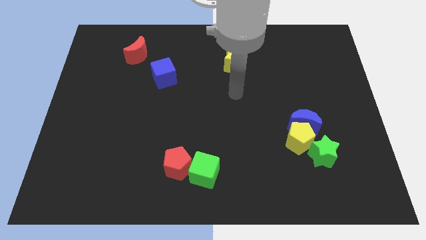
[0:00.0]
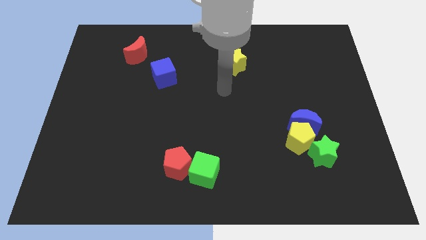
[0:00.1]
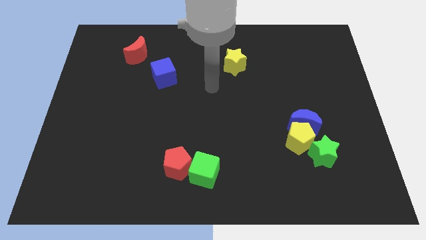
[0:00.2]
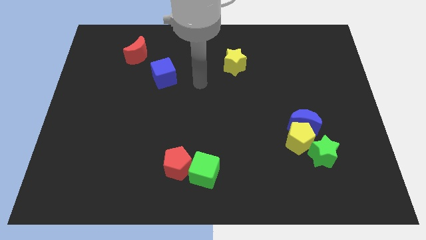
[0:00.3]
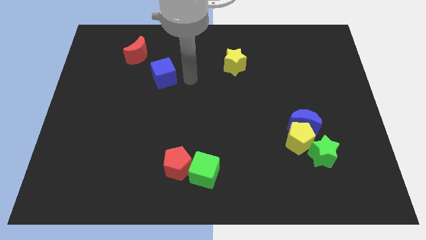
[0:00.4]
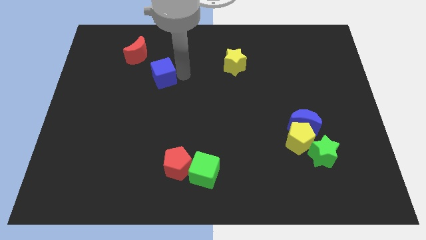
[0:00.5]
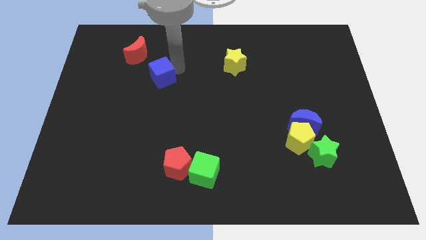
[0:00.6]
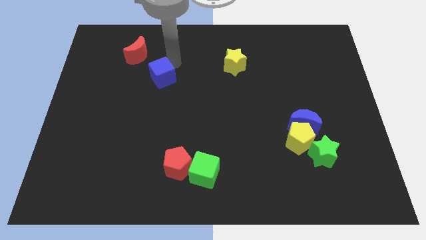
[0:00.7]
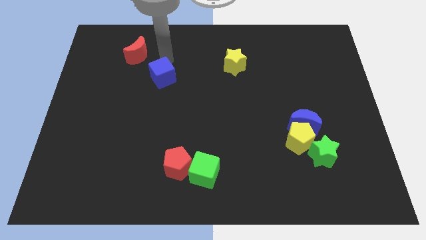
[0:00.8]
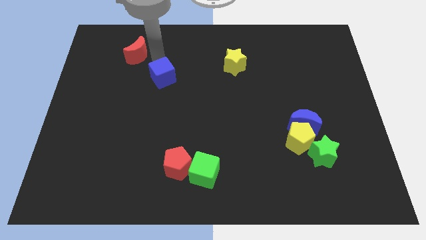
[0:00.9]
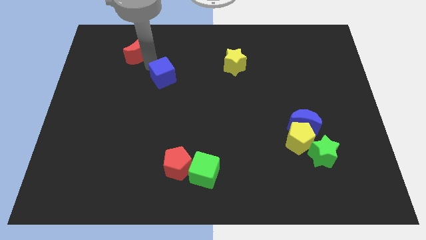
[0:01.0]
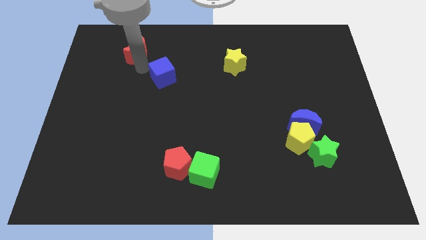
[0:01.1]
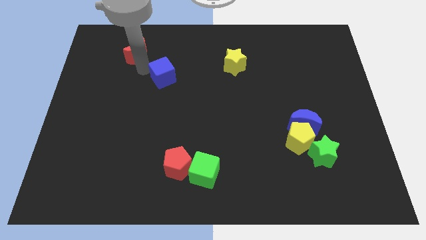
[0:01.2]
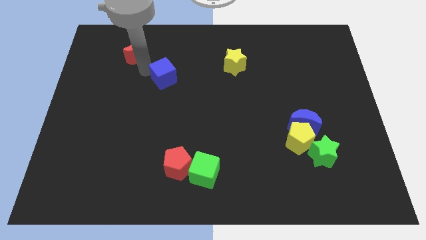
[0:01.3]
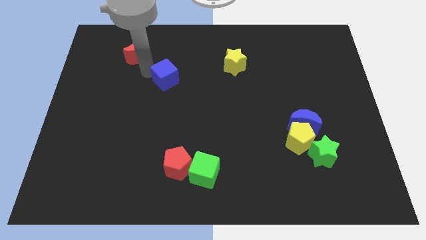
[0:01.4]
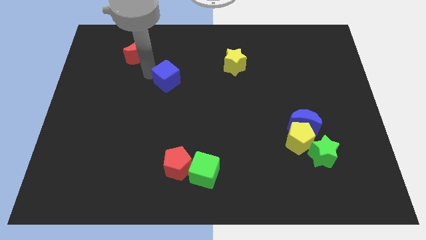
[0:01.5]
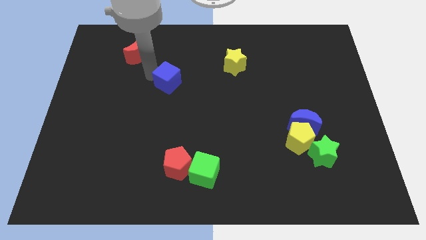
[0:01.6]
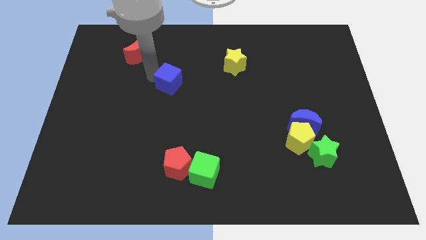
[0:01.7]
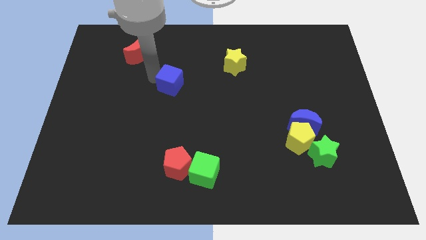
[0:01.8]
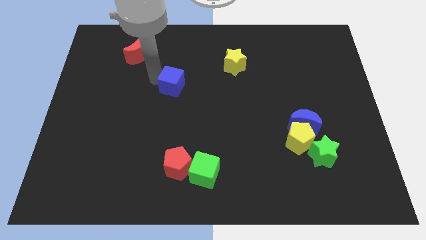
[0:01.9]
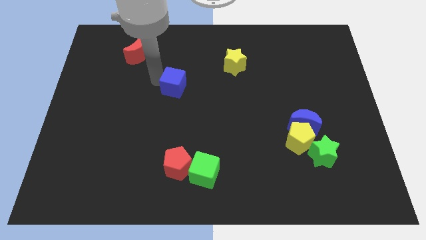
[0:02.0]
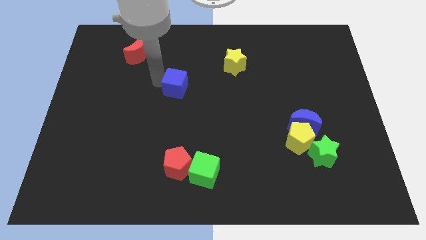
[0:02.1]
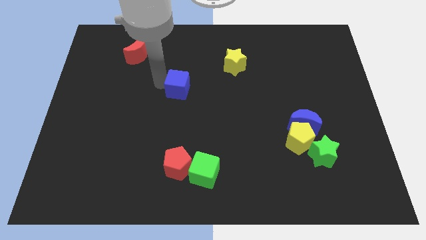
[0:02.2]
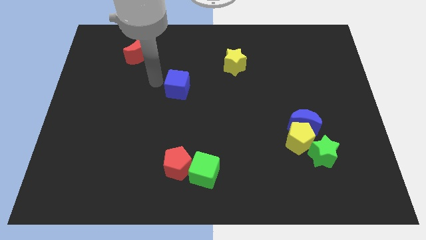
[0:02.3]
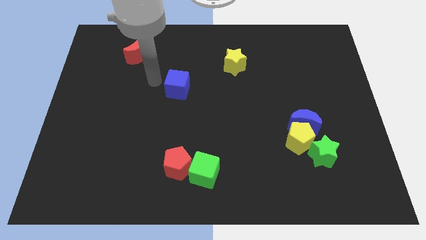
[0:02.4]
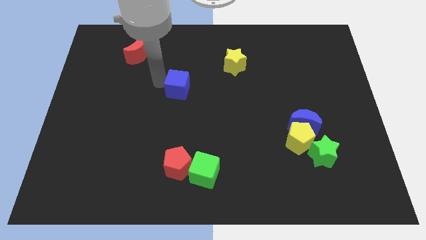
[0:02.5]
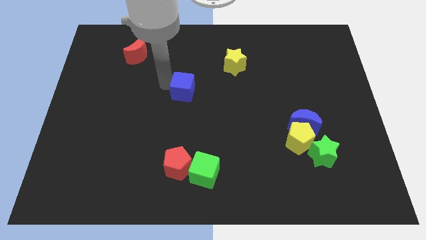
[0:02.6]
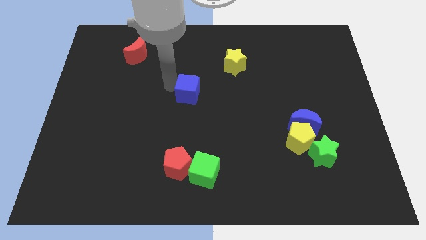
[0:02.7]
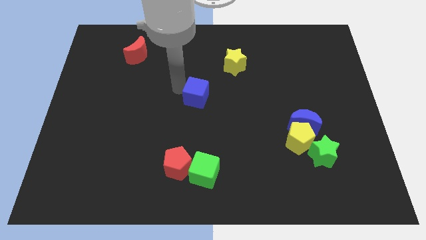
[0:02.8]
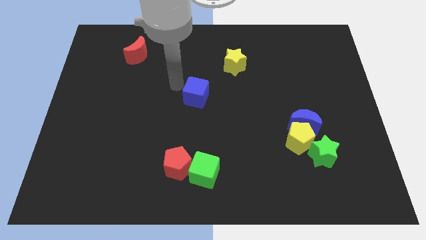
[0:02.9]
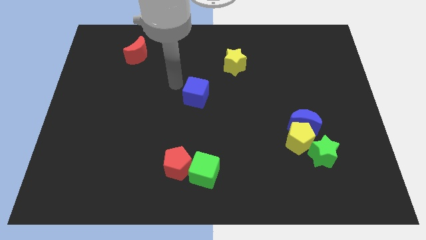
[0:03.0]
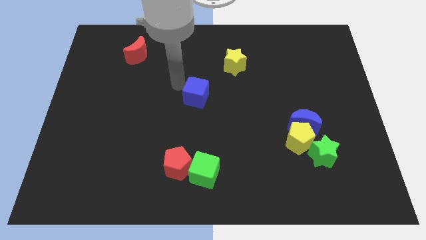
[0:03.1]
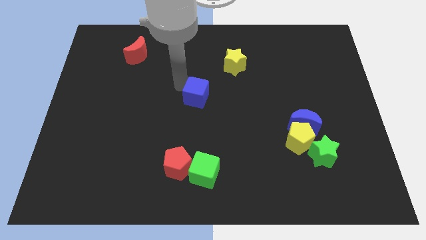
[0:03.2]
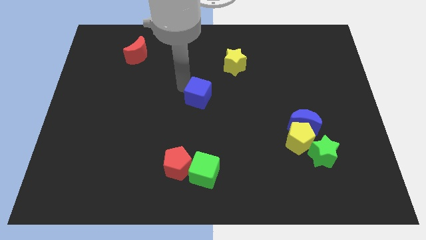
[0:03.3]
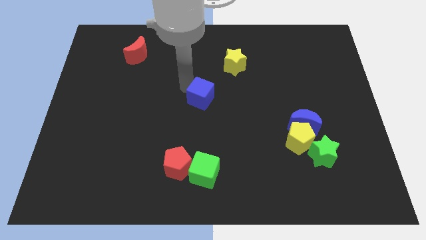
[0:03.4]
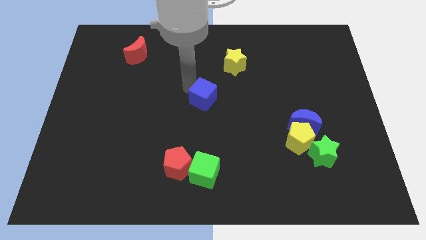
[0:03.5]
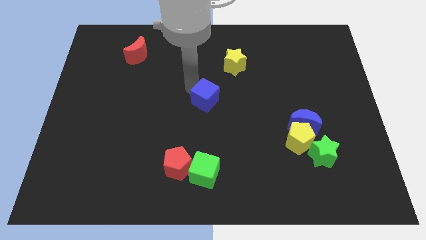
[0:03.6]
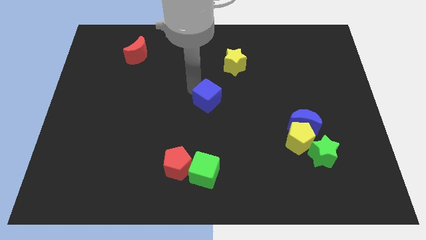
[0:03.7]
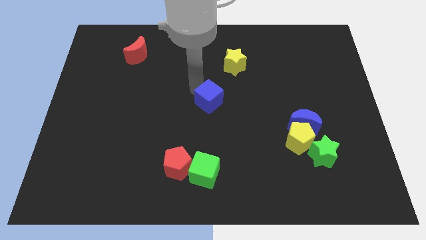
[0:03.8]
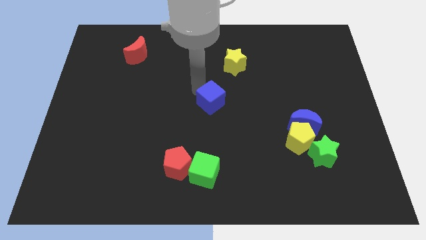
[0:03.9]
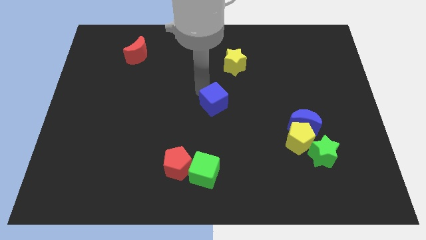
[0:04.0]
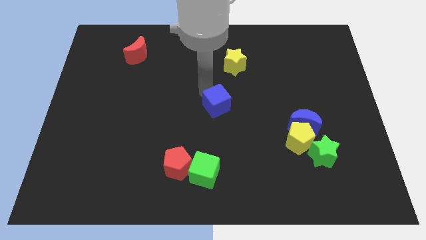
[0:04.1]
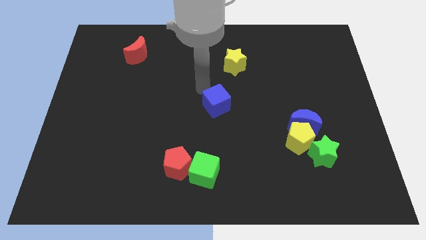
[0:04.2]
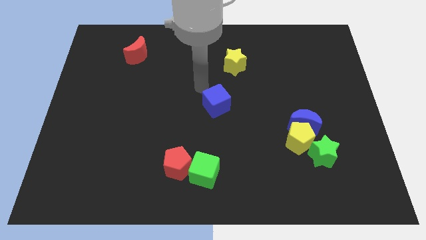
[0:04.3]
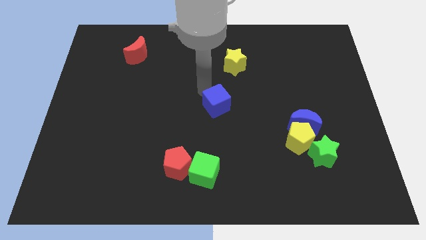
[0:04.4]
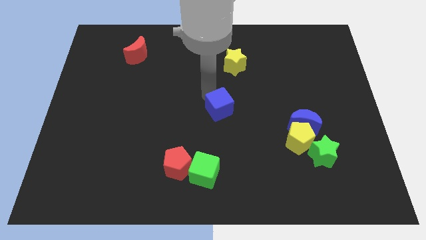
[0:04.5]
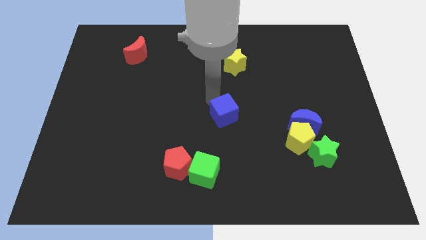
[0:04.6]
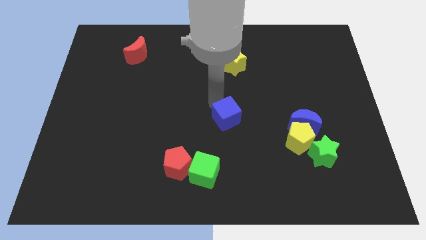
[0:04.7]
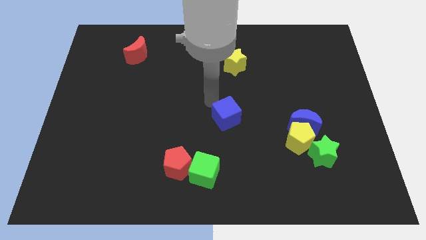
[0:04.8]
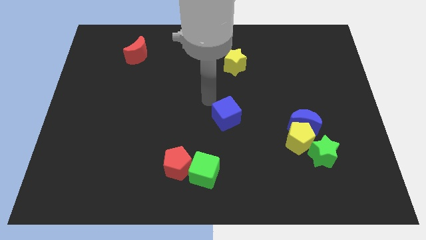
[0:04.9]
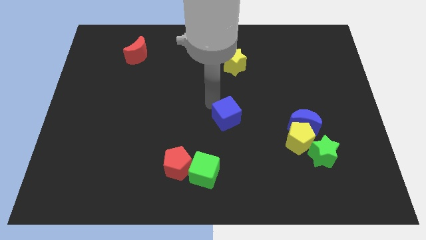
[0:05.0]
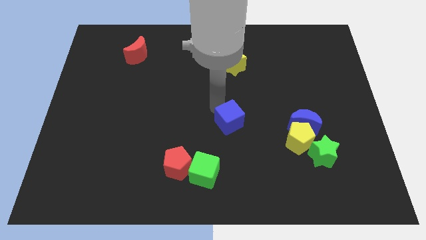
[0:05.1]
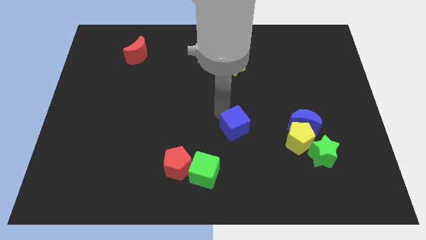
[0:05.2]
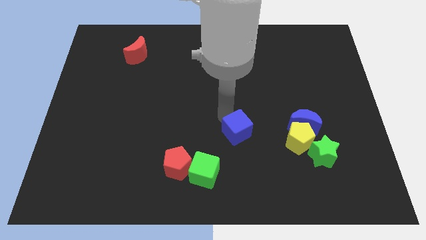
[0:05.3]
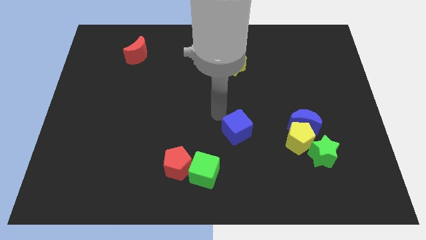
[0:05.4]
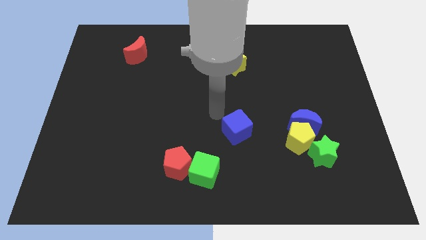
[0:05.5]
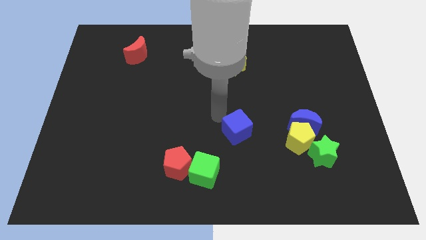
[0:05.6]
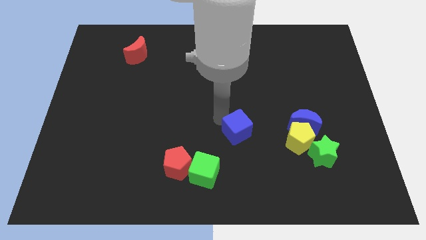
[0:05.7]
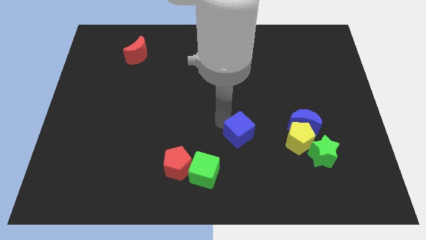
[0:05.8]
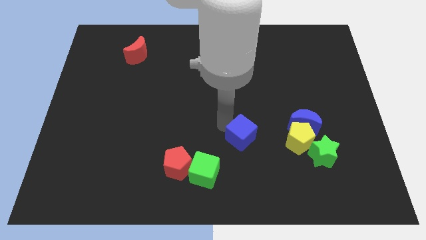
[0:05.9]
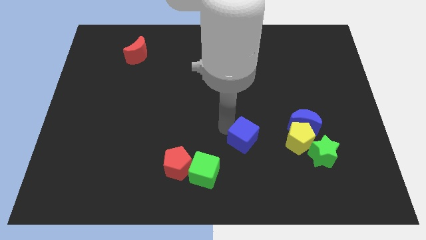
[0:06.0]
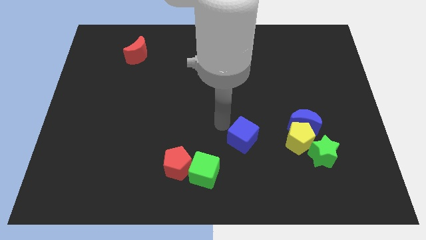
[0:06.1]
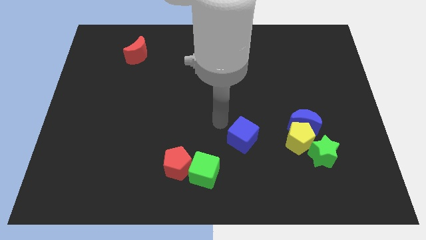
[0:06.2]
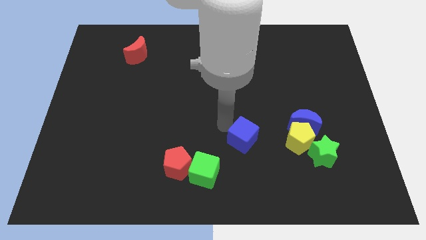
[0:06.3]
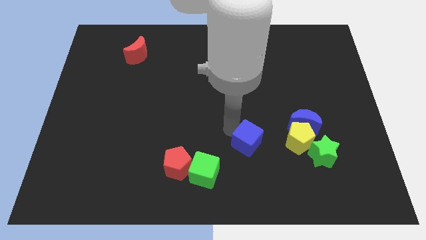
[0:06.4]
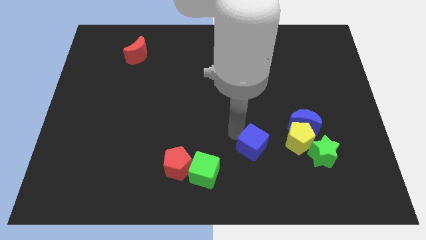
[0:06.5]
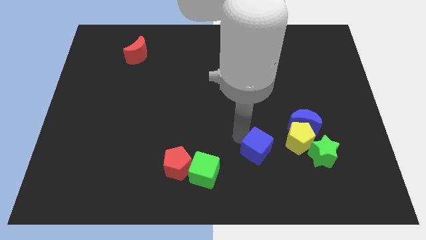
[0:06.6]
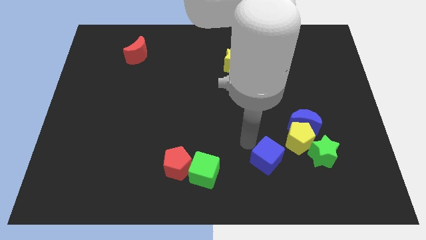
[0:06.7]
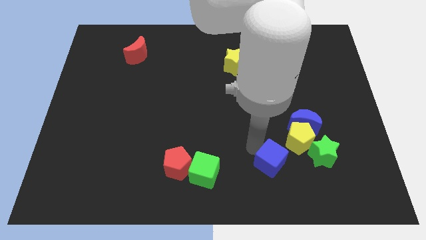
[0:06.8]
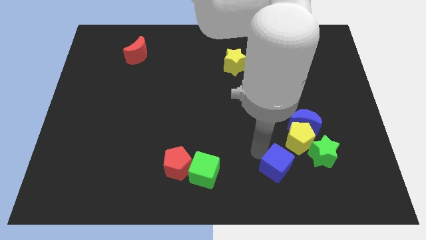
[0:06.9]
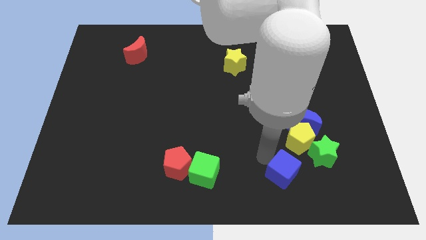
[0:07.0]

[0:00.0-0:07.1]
slide the blue cube to the bottom side of the yellow pentagon
